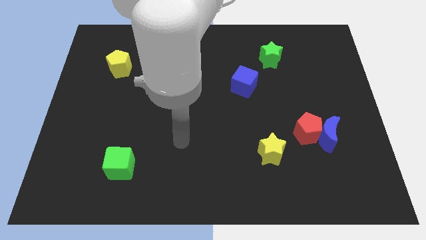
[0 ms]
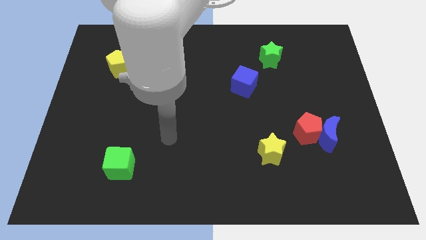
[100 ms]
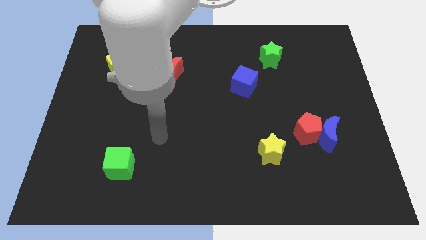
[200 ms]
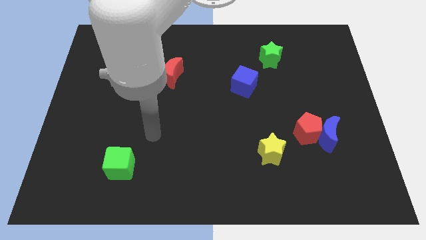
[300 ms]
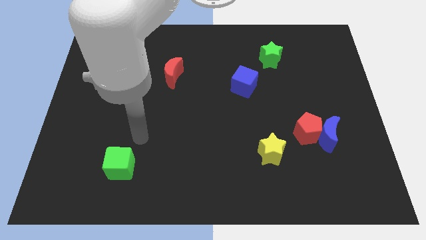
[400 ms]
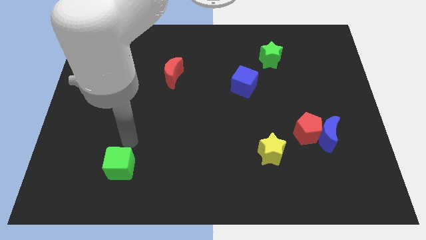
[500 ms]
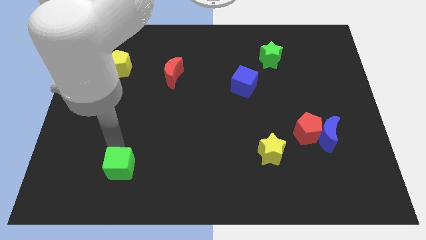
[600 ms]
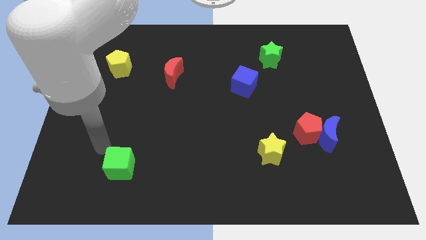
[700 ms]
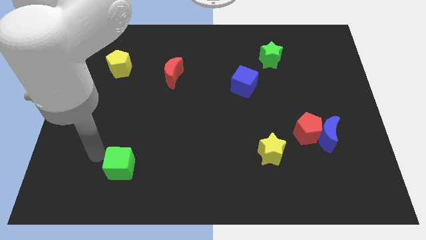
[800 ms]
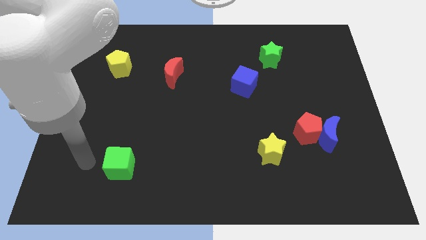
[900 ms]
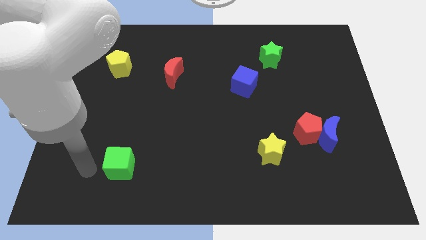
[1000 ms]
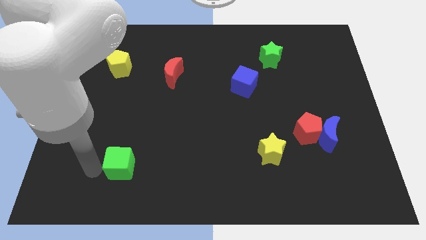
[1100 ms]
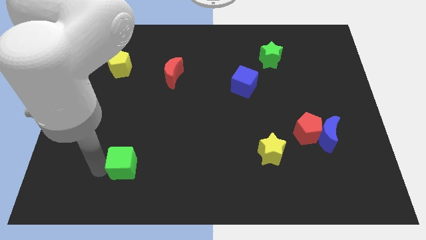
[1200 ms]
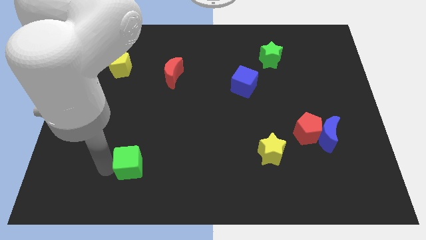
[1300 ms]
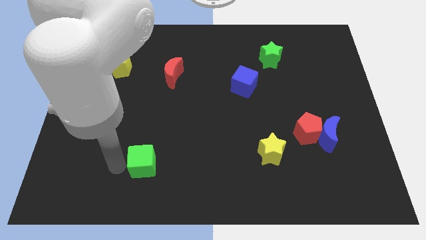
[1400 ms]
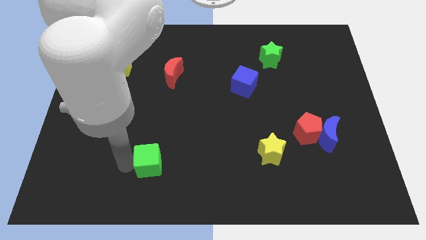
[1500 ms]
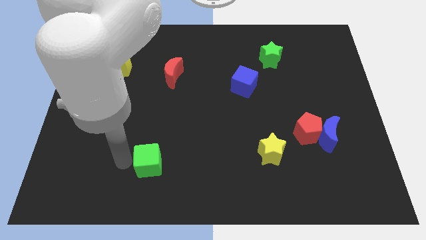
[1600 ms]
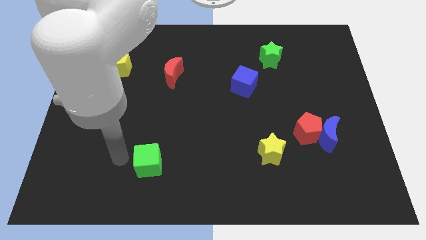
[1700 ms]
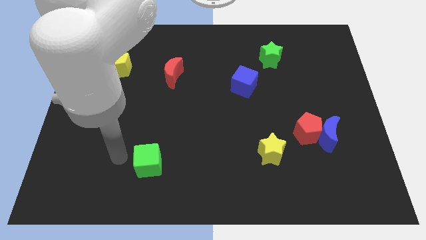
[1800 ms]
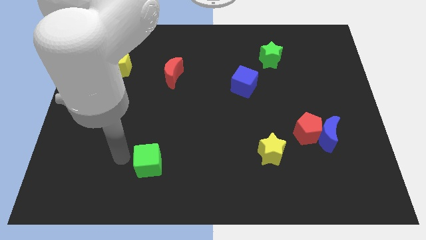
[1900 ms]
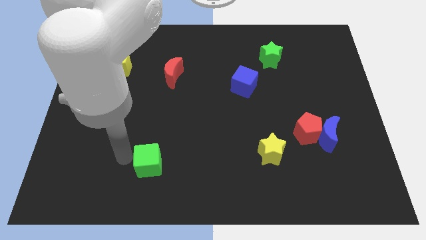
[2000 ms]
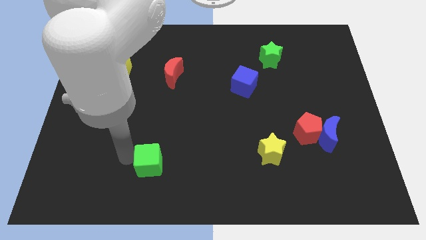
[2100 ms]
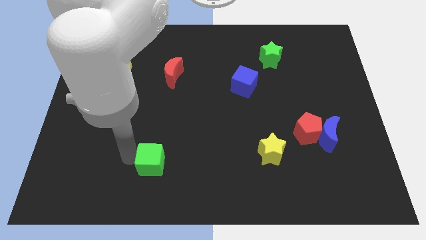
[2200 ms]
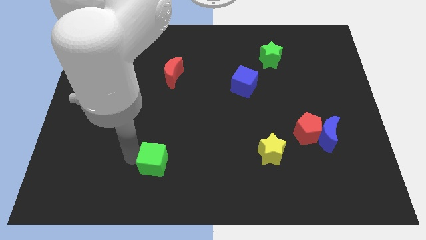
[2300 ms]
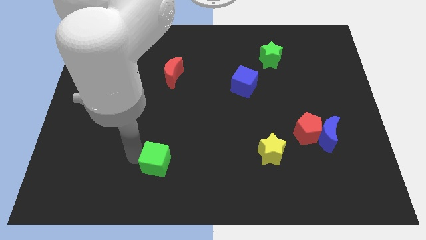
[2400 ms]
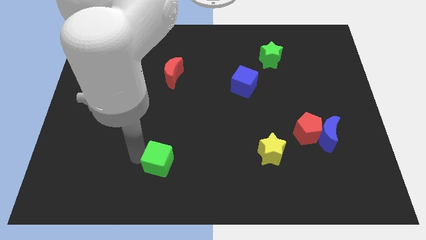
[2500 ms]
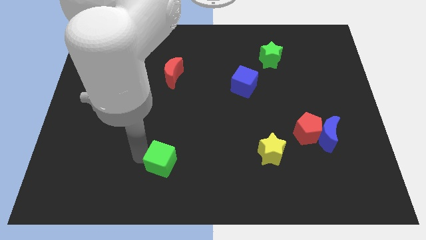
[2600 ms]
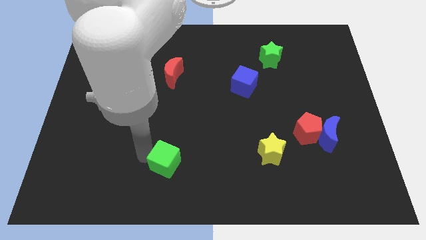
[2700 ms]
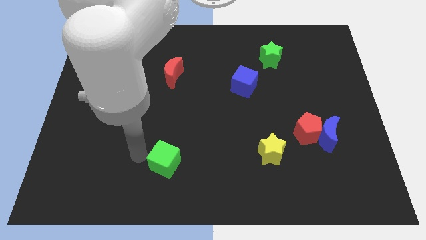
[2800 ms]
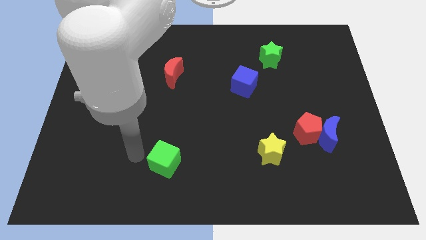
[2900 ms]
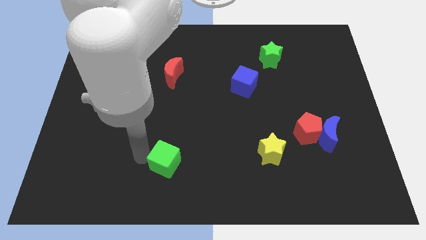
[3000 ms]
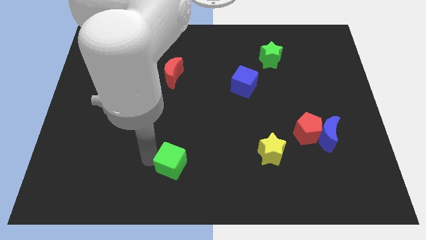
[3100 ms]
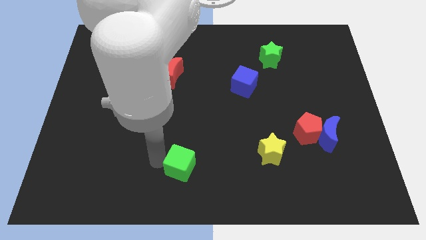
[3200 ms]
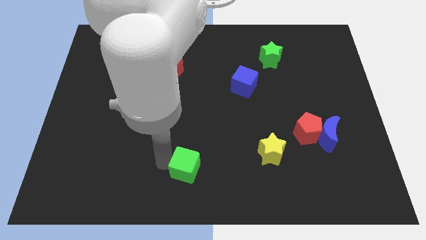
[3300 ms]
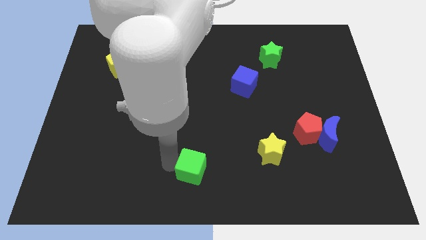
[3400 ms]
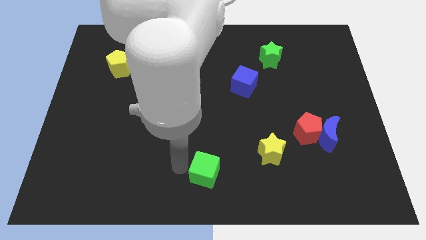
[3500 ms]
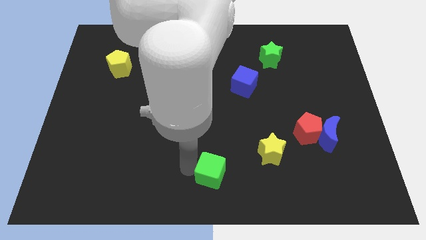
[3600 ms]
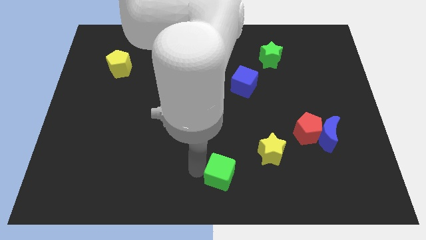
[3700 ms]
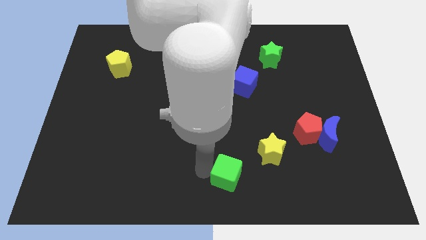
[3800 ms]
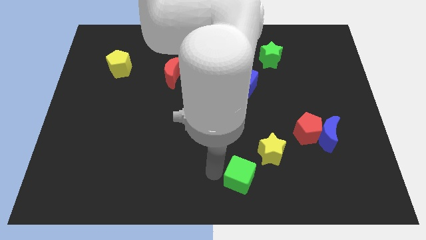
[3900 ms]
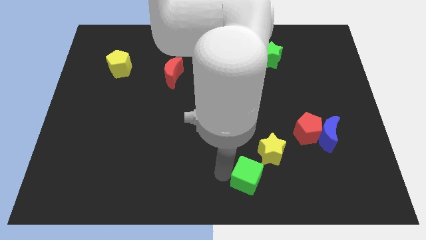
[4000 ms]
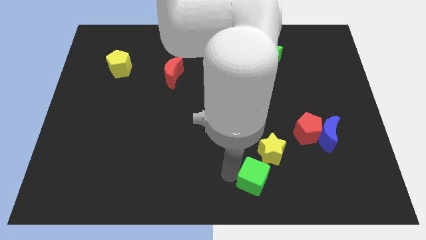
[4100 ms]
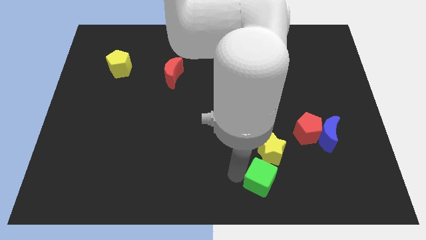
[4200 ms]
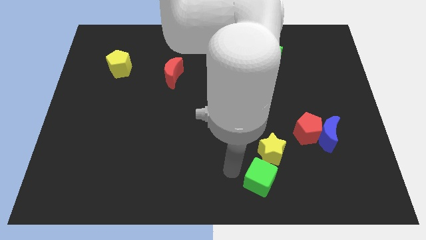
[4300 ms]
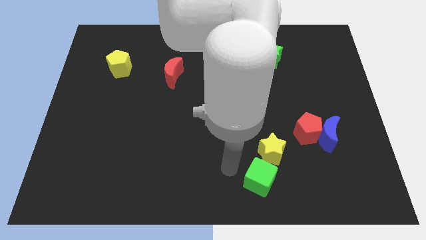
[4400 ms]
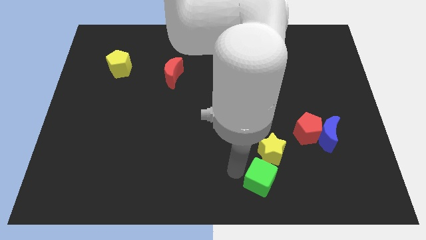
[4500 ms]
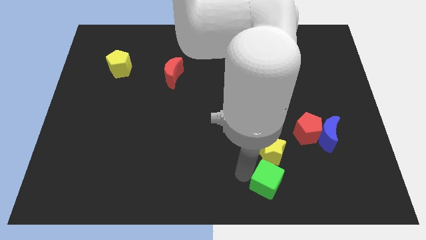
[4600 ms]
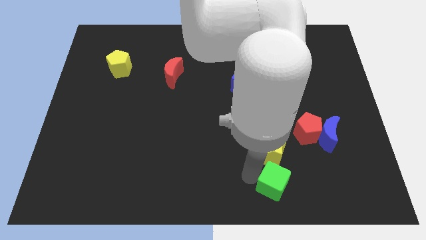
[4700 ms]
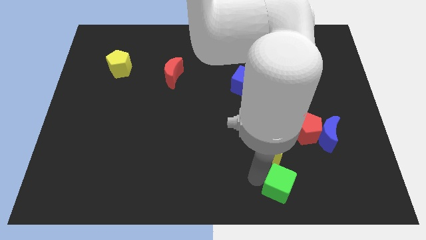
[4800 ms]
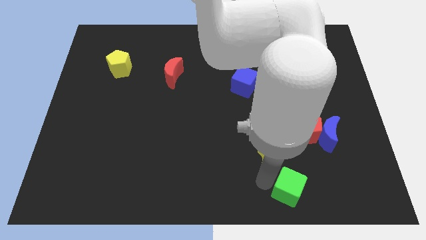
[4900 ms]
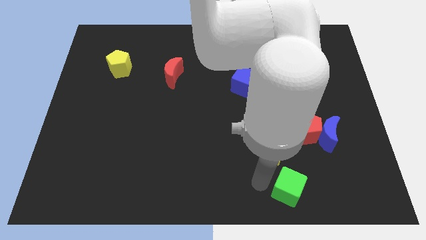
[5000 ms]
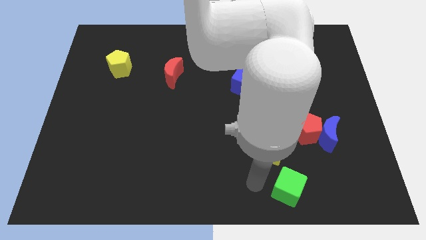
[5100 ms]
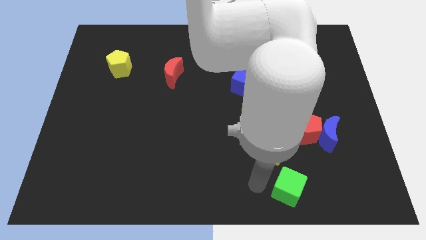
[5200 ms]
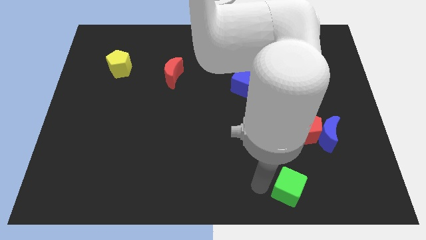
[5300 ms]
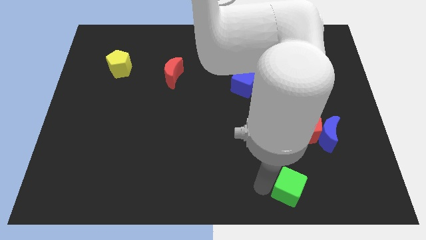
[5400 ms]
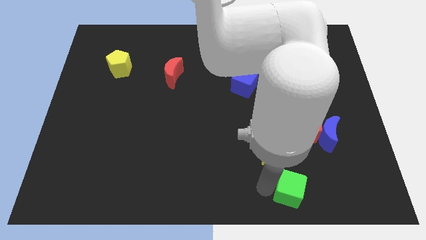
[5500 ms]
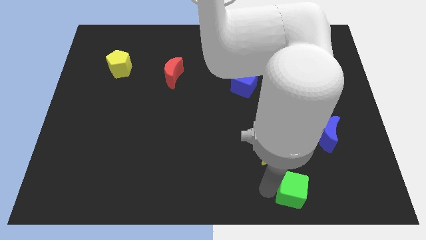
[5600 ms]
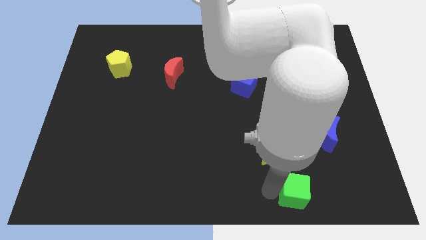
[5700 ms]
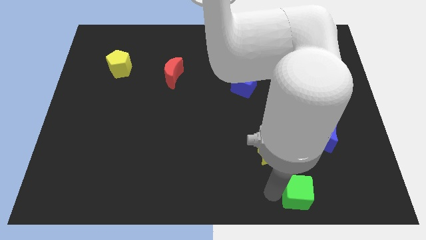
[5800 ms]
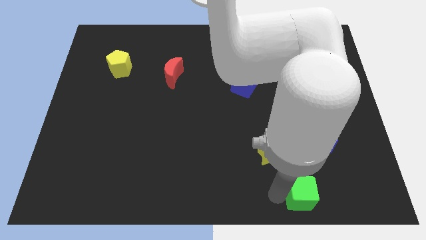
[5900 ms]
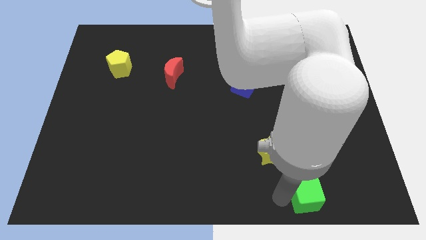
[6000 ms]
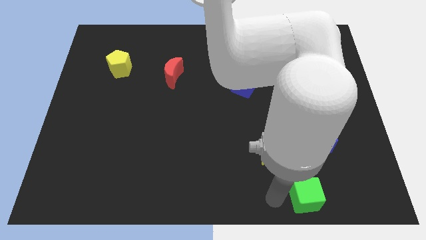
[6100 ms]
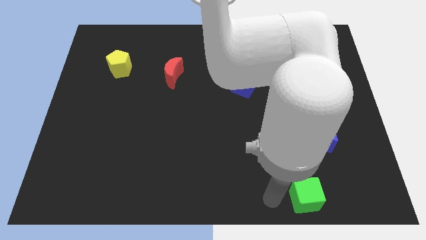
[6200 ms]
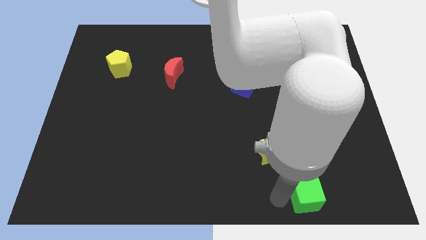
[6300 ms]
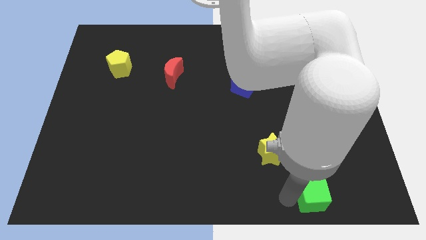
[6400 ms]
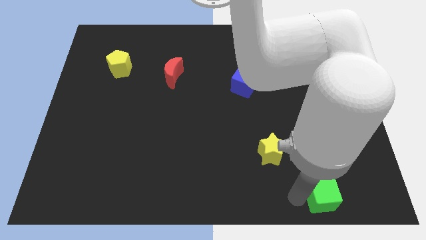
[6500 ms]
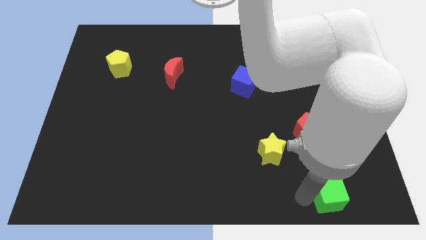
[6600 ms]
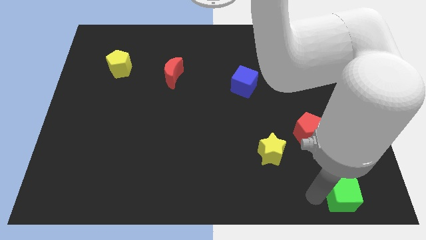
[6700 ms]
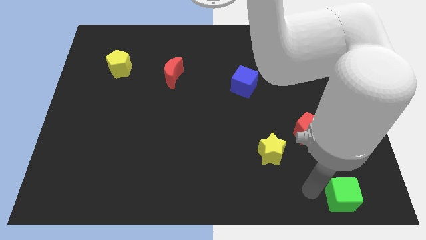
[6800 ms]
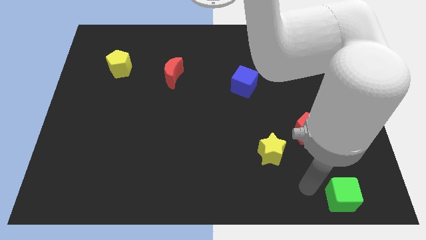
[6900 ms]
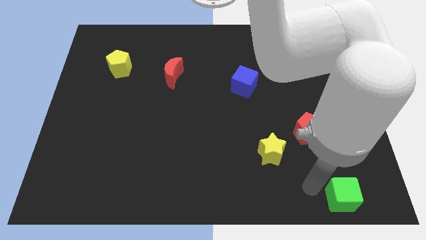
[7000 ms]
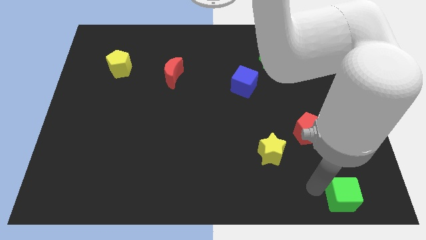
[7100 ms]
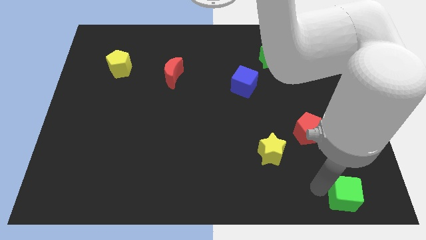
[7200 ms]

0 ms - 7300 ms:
push the green cube to the bottom right

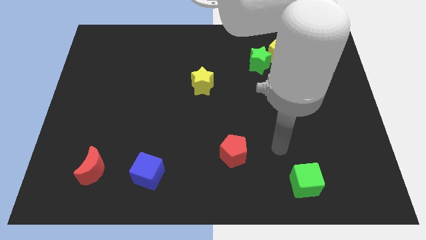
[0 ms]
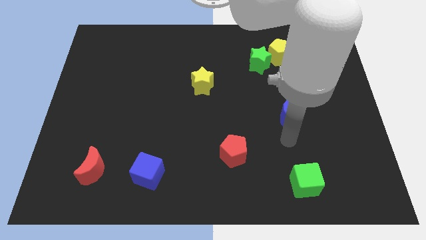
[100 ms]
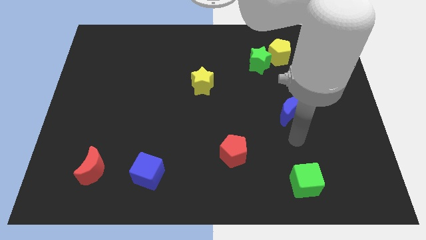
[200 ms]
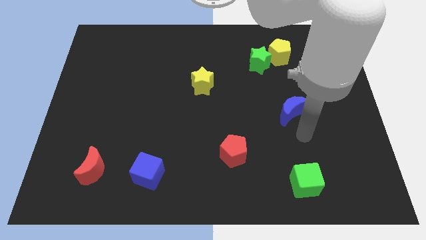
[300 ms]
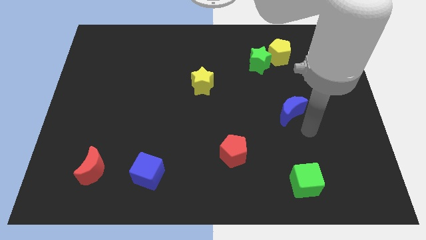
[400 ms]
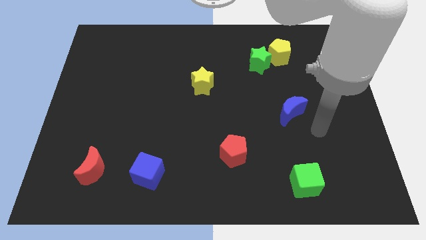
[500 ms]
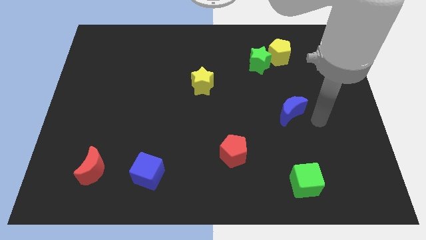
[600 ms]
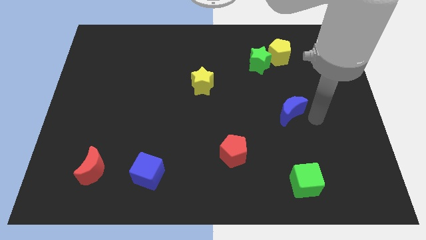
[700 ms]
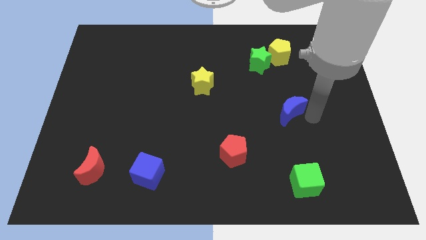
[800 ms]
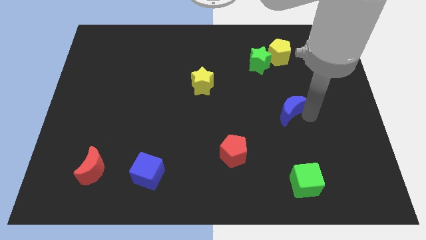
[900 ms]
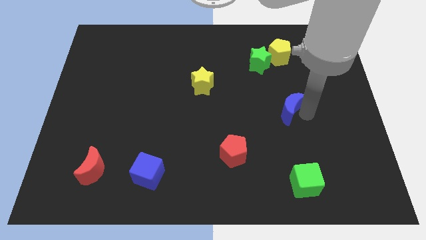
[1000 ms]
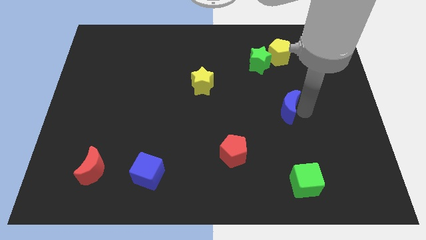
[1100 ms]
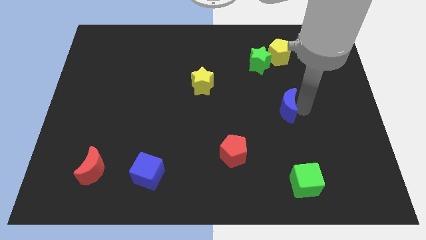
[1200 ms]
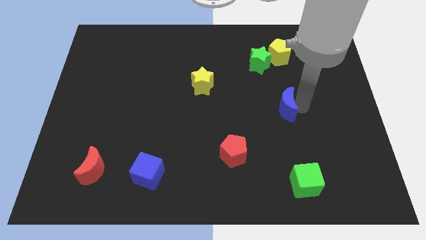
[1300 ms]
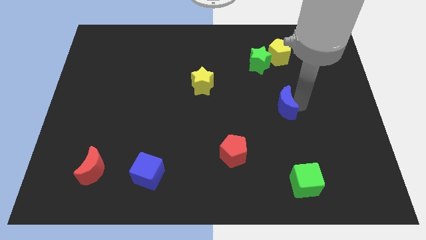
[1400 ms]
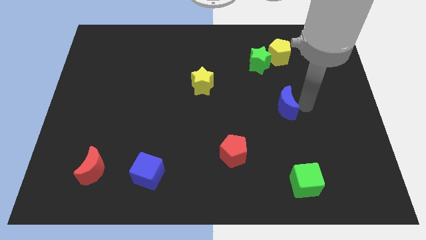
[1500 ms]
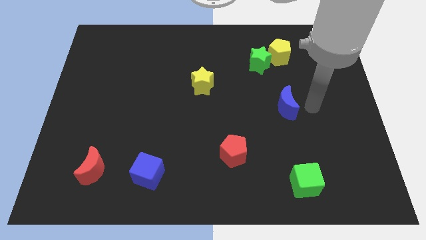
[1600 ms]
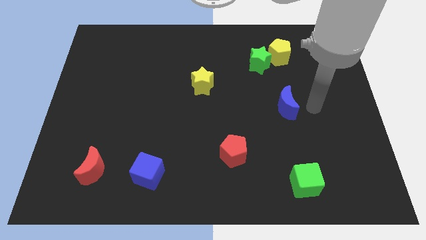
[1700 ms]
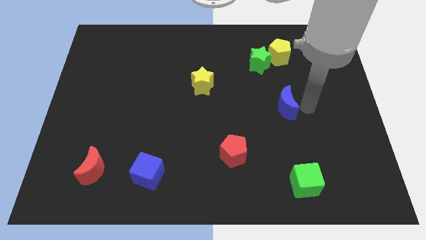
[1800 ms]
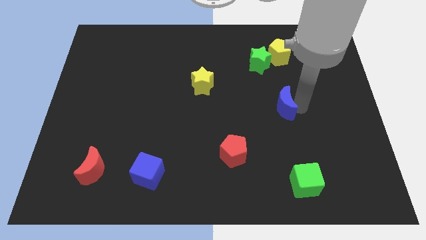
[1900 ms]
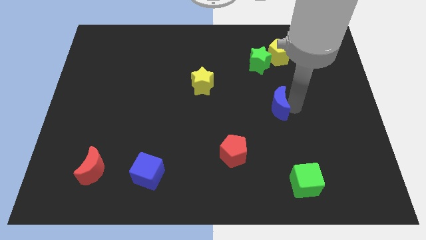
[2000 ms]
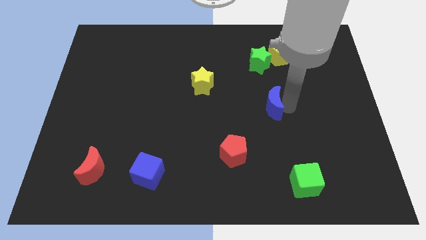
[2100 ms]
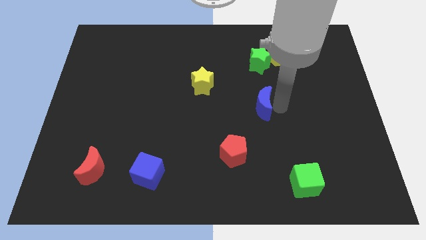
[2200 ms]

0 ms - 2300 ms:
move the blue moon to the center of the board
